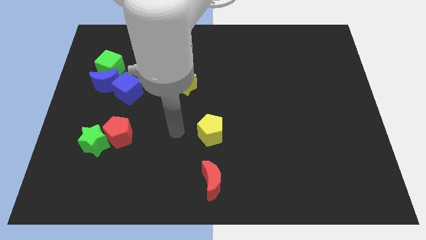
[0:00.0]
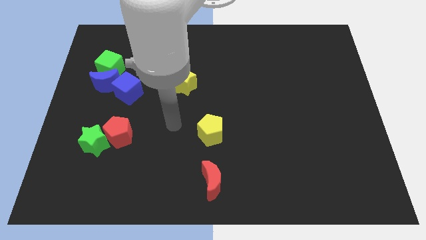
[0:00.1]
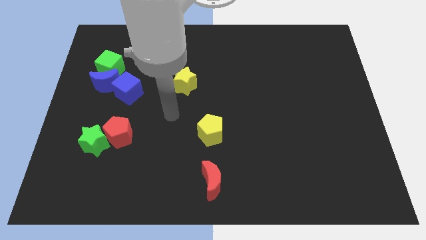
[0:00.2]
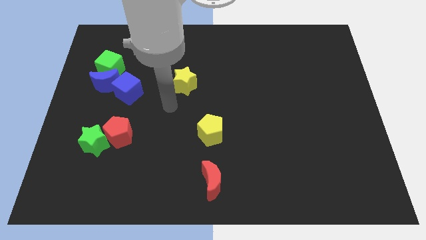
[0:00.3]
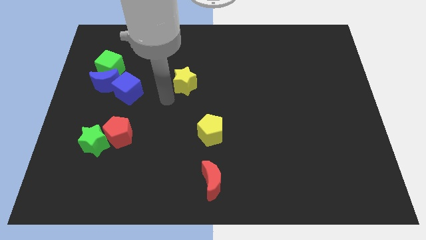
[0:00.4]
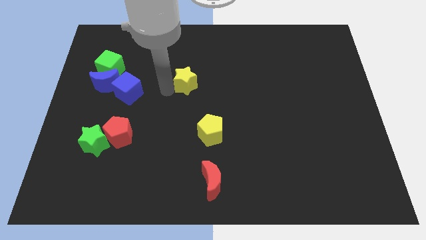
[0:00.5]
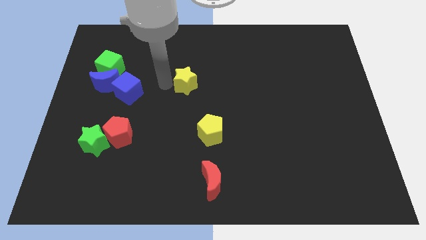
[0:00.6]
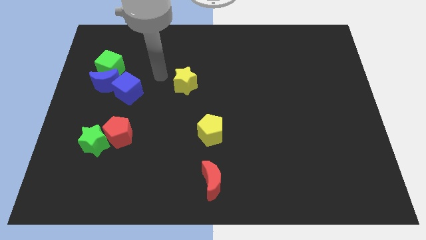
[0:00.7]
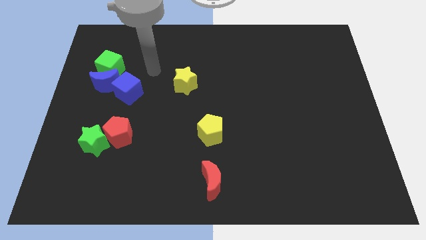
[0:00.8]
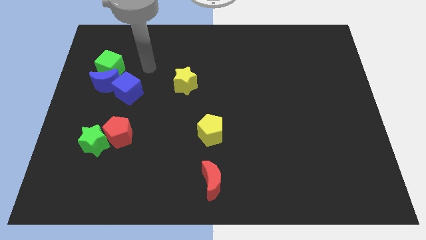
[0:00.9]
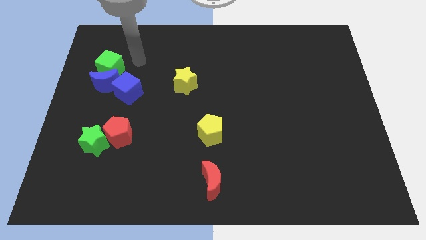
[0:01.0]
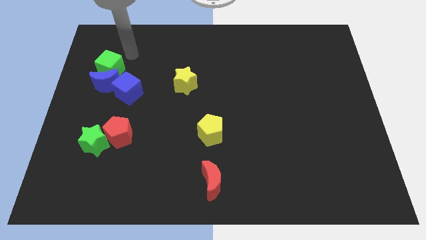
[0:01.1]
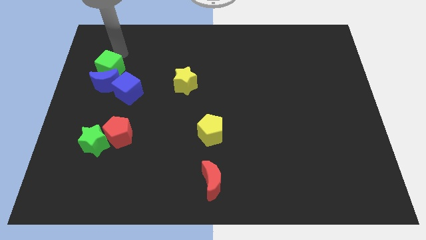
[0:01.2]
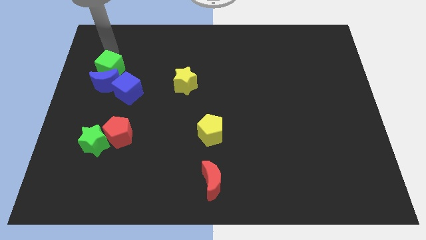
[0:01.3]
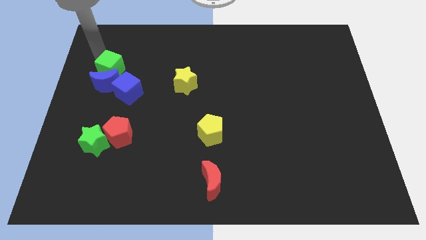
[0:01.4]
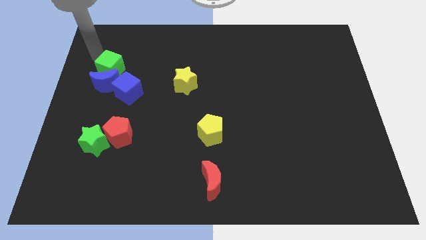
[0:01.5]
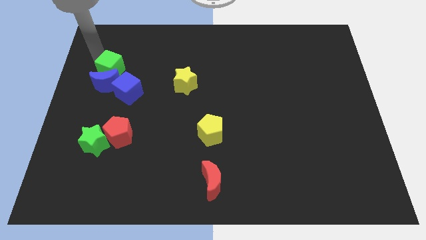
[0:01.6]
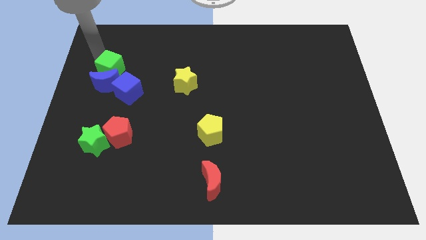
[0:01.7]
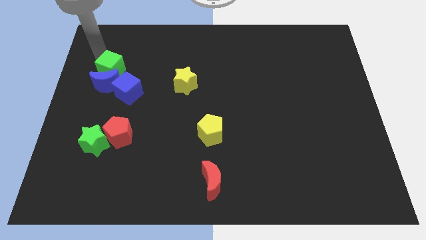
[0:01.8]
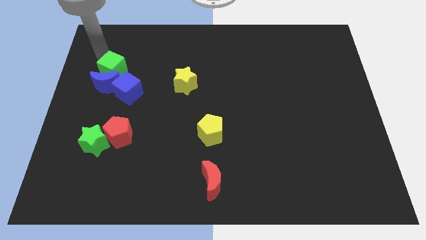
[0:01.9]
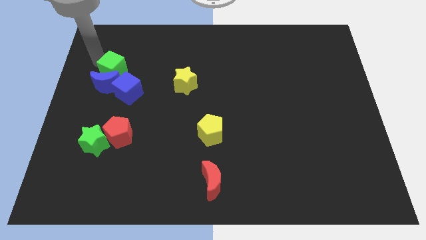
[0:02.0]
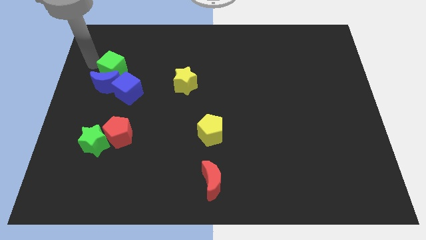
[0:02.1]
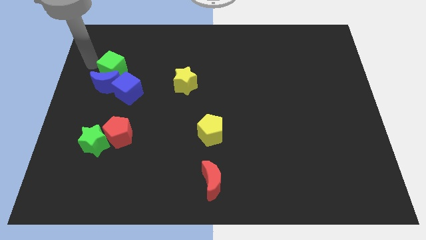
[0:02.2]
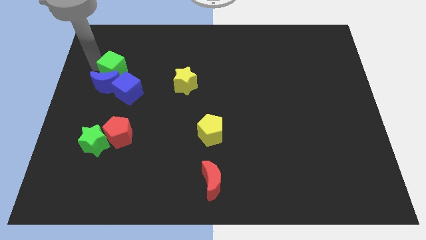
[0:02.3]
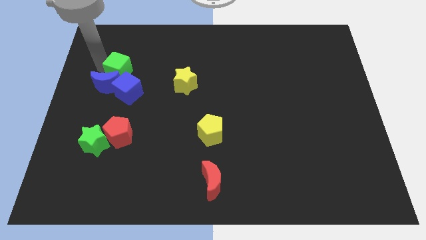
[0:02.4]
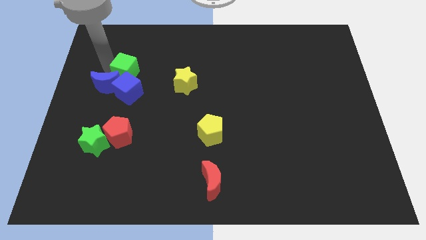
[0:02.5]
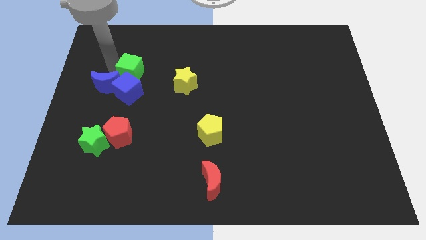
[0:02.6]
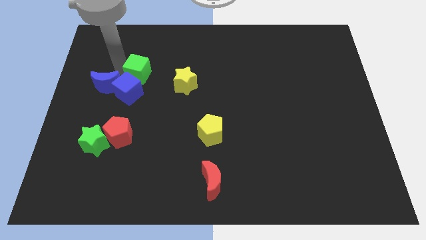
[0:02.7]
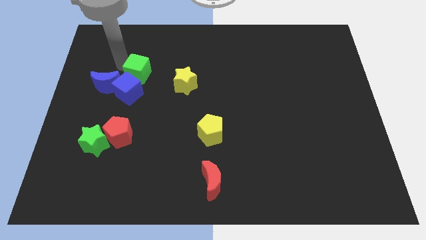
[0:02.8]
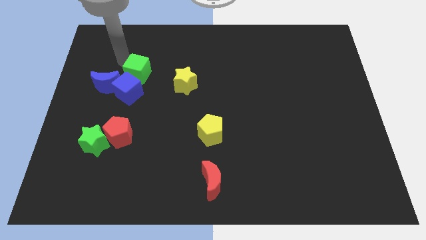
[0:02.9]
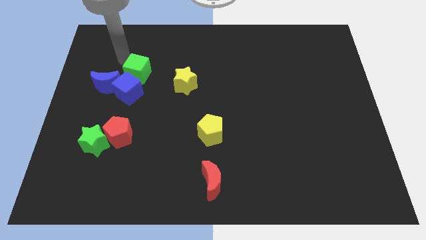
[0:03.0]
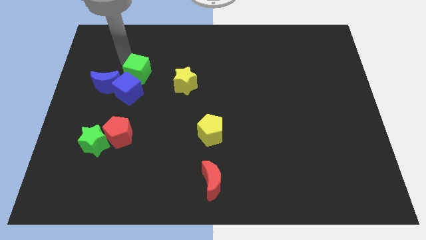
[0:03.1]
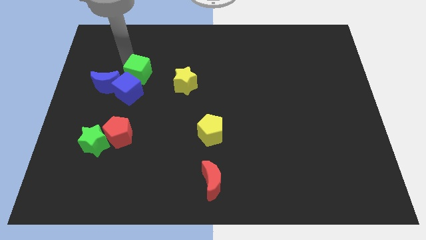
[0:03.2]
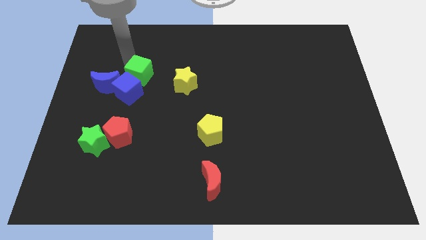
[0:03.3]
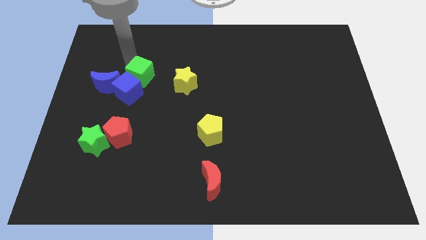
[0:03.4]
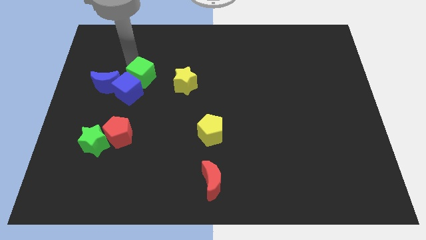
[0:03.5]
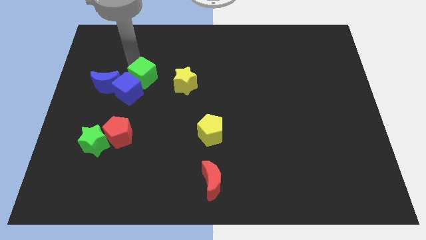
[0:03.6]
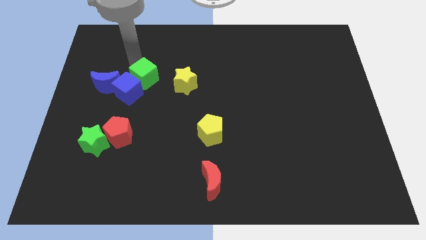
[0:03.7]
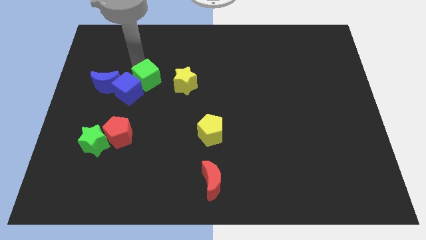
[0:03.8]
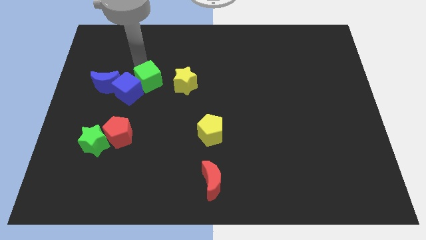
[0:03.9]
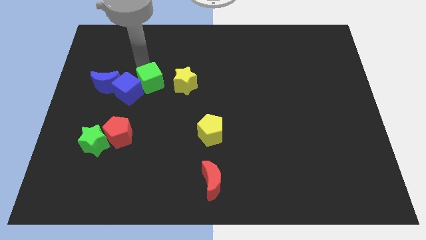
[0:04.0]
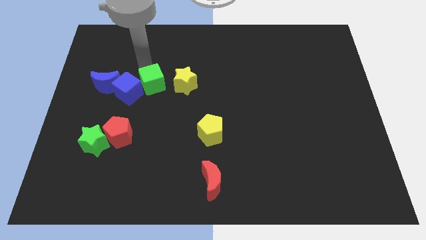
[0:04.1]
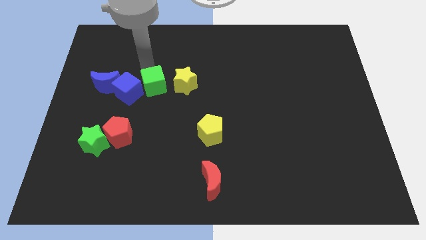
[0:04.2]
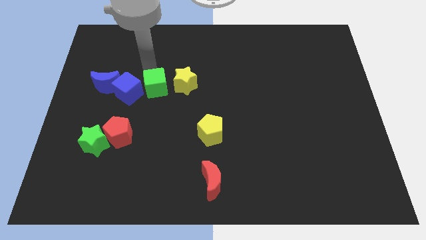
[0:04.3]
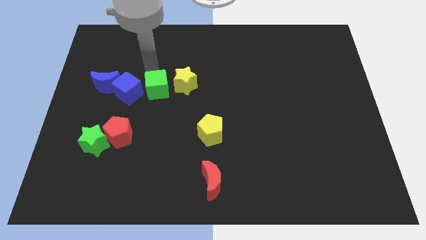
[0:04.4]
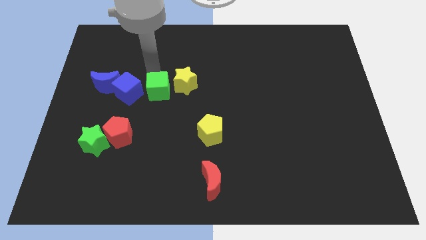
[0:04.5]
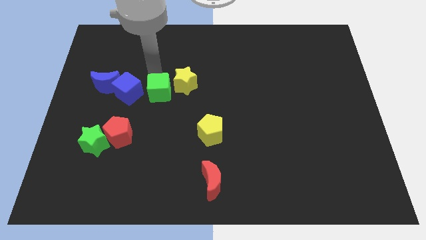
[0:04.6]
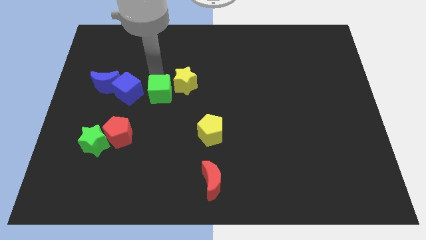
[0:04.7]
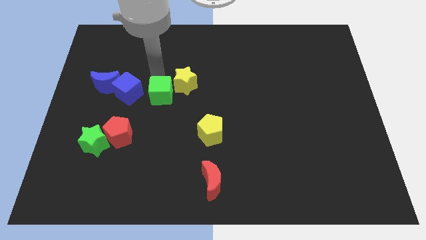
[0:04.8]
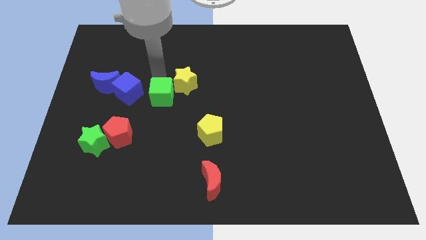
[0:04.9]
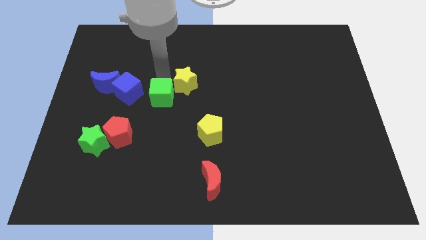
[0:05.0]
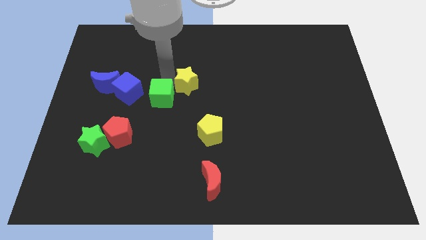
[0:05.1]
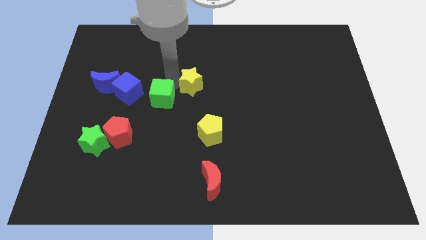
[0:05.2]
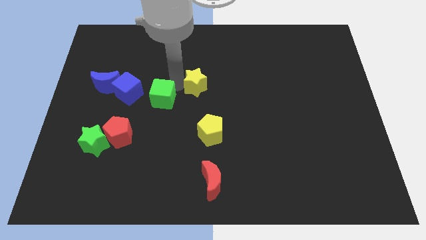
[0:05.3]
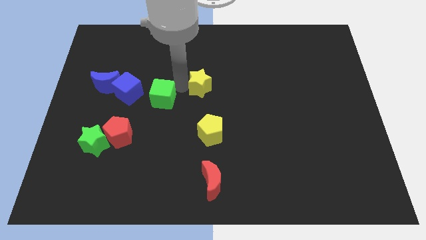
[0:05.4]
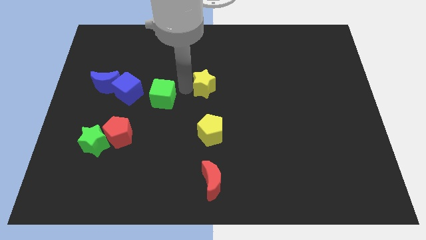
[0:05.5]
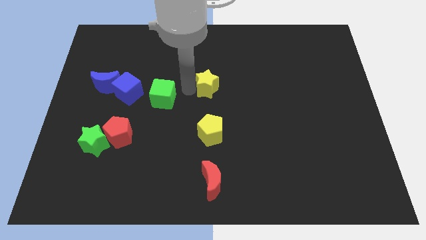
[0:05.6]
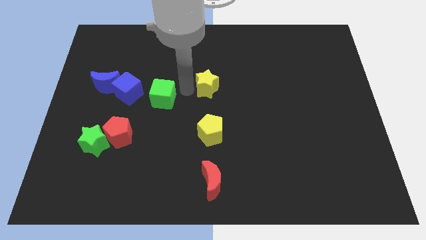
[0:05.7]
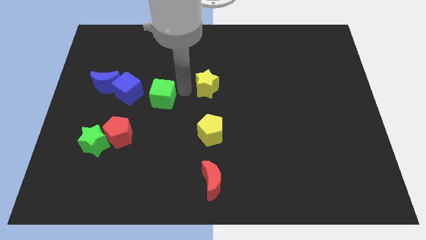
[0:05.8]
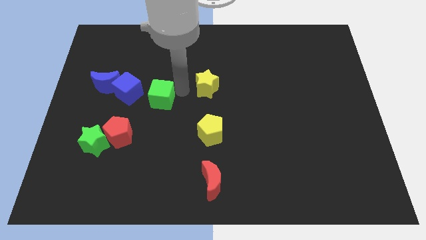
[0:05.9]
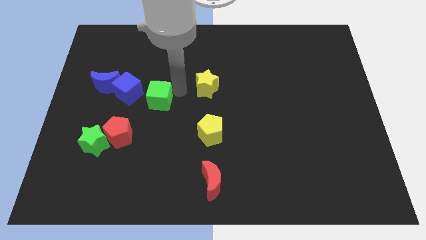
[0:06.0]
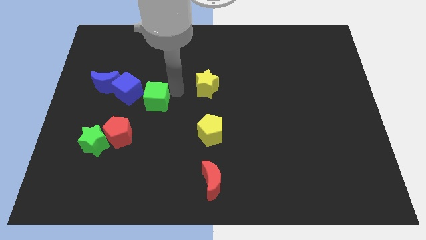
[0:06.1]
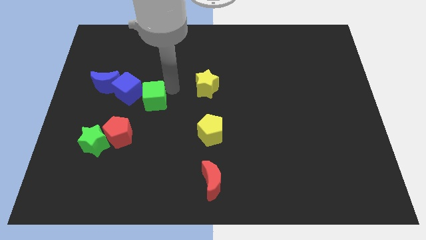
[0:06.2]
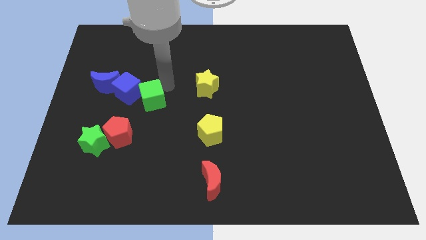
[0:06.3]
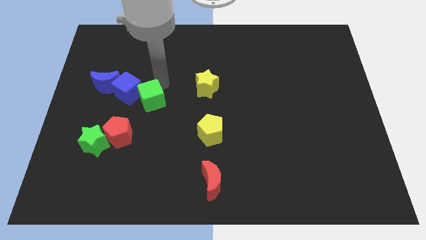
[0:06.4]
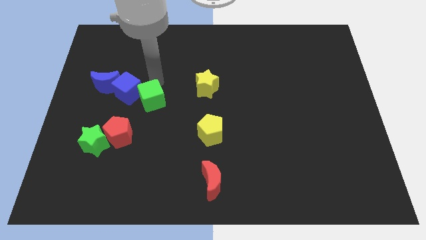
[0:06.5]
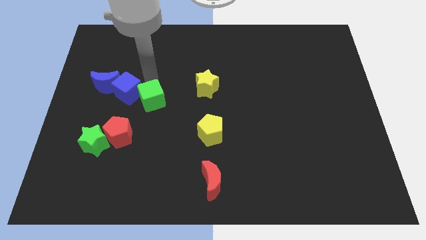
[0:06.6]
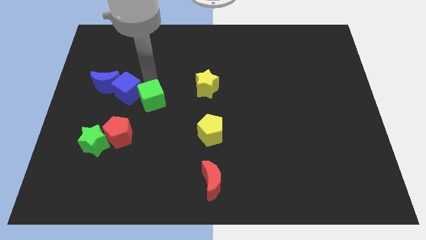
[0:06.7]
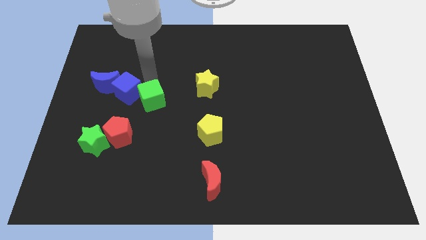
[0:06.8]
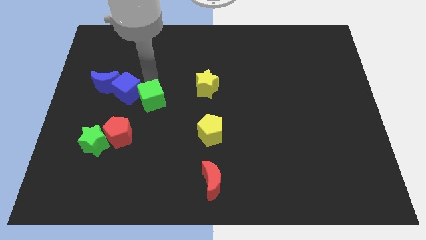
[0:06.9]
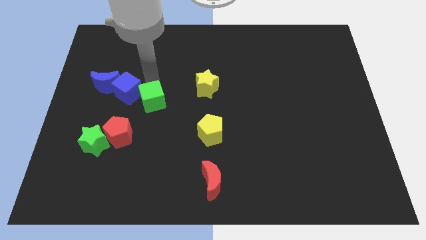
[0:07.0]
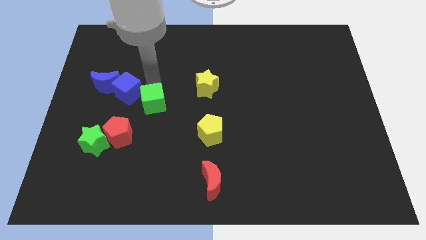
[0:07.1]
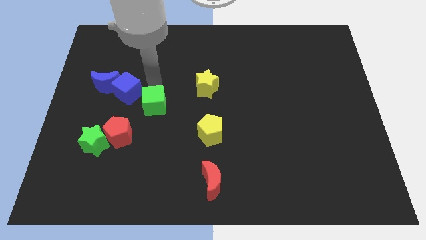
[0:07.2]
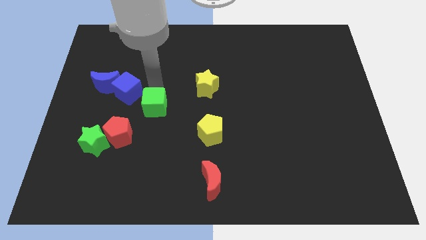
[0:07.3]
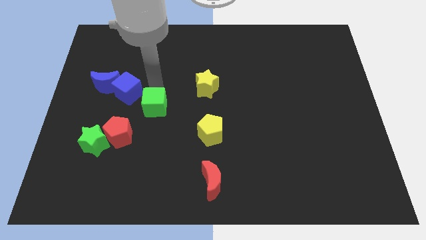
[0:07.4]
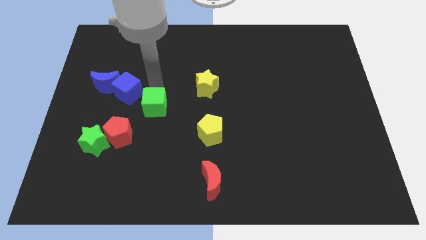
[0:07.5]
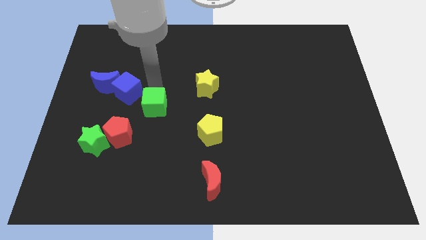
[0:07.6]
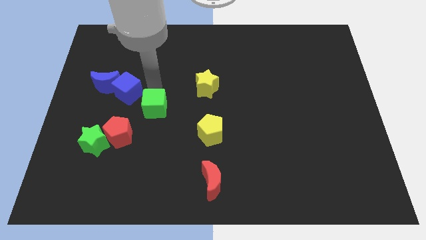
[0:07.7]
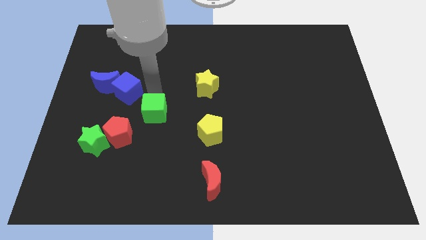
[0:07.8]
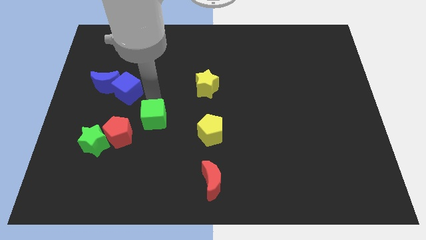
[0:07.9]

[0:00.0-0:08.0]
push the green cube to the right side of the red pentagon

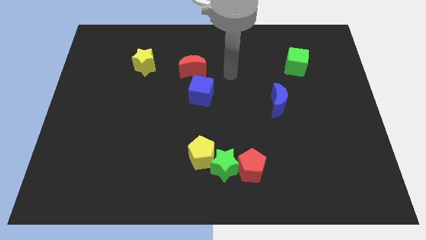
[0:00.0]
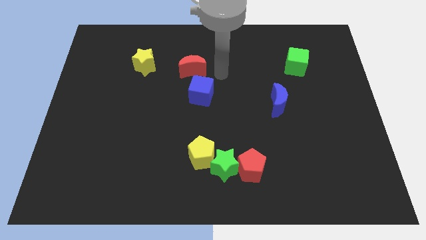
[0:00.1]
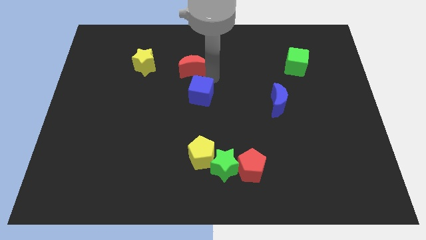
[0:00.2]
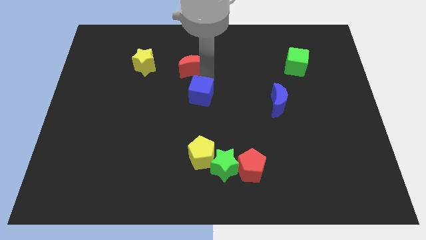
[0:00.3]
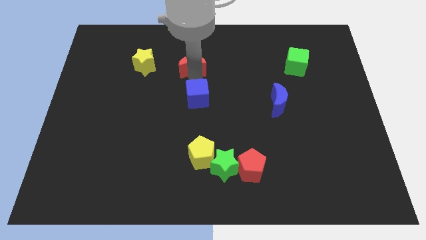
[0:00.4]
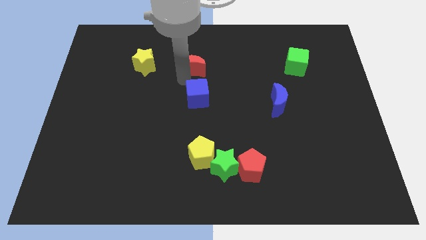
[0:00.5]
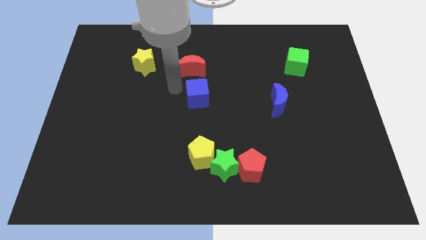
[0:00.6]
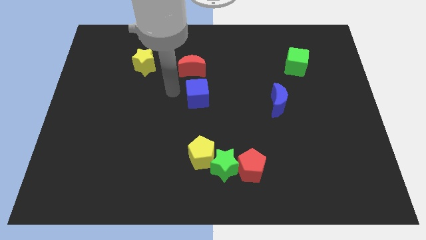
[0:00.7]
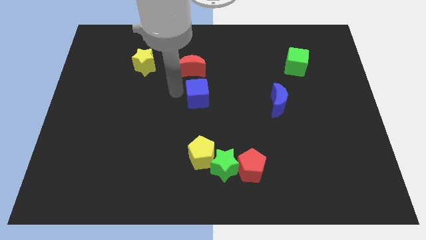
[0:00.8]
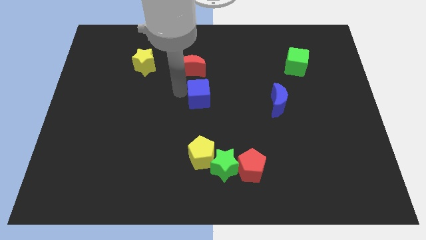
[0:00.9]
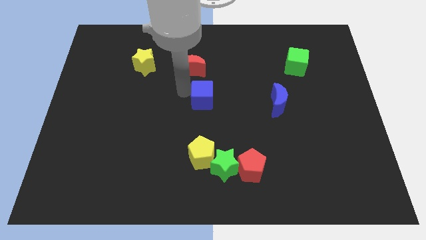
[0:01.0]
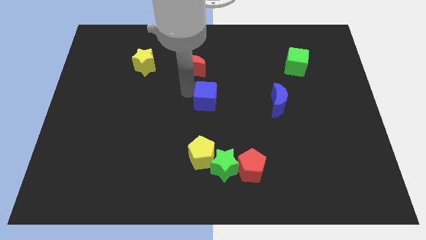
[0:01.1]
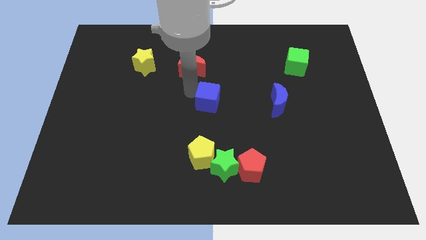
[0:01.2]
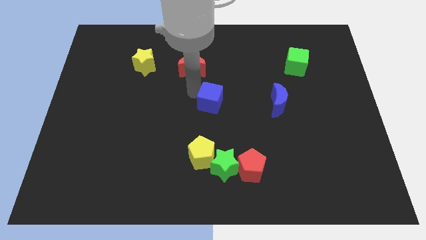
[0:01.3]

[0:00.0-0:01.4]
slide the blue cube to the left of the blue moon
